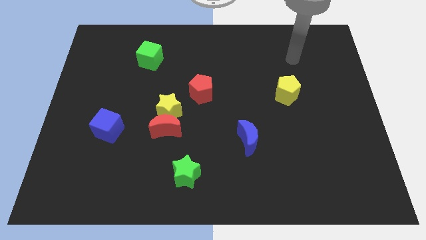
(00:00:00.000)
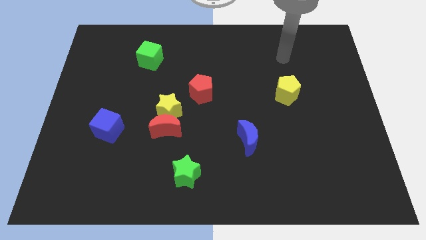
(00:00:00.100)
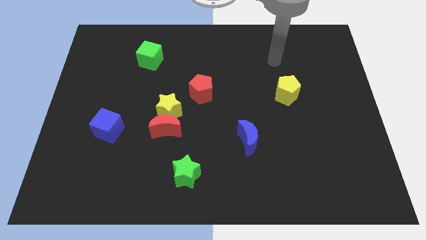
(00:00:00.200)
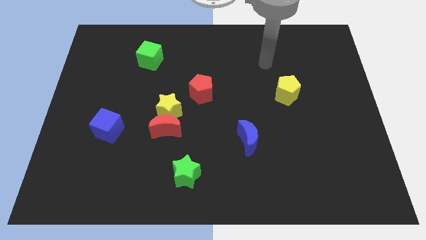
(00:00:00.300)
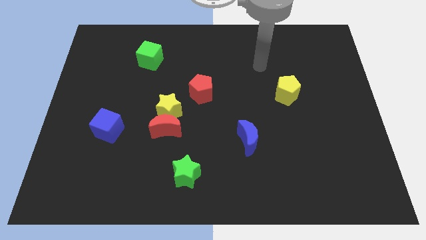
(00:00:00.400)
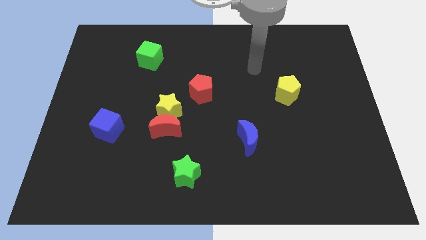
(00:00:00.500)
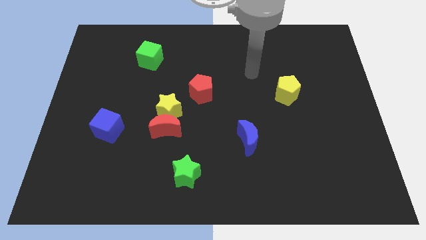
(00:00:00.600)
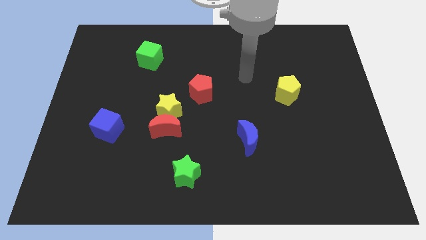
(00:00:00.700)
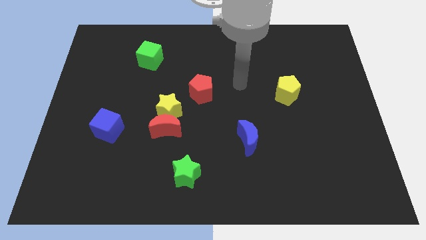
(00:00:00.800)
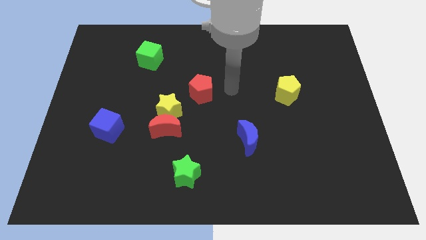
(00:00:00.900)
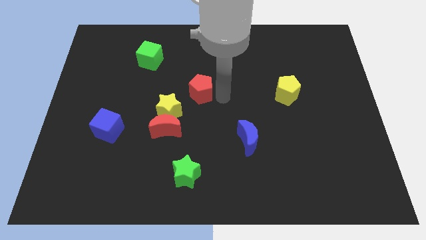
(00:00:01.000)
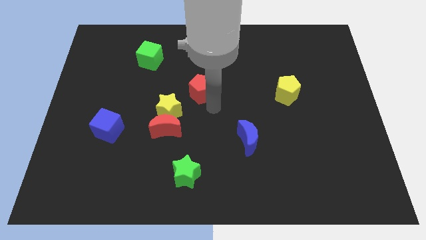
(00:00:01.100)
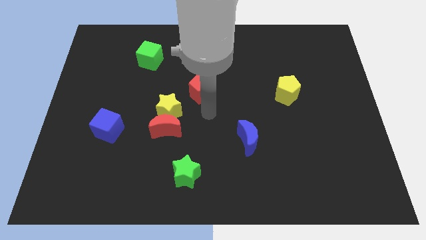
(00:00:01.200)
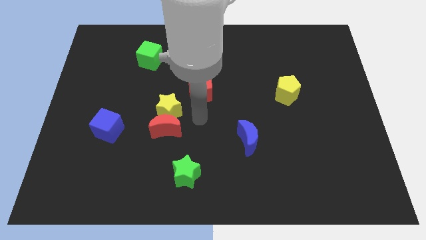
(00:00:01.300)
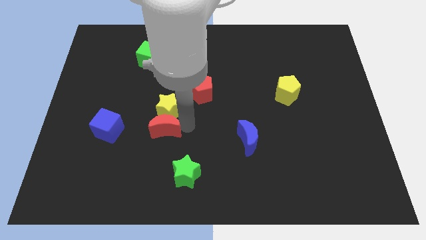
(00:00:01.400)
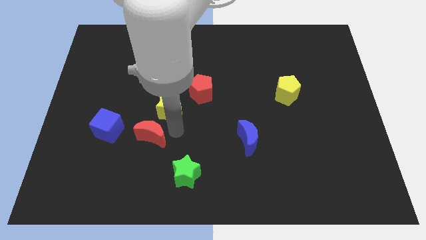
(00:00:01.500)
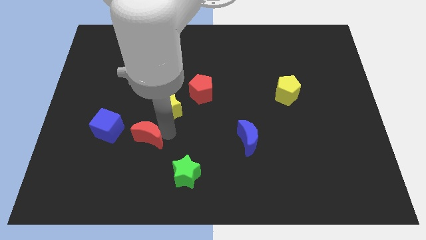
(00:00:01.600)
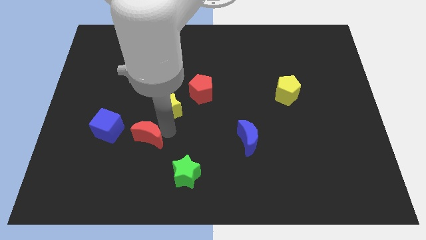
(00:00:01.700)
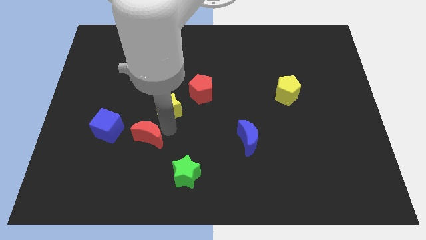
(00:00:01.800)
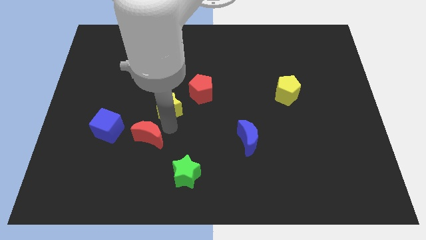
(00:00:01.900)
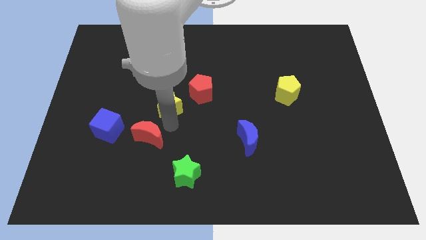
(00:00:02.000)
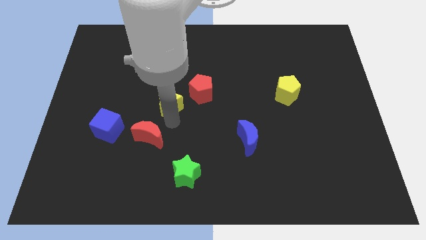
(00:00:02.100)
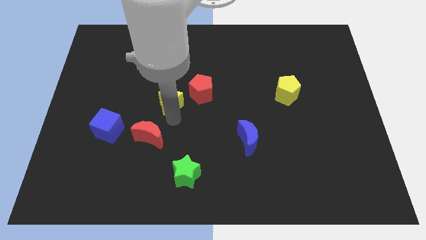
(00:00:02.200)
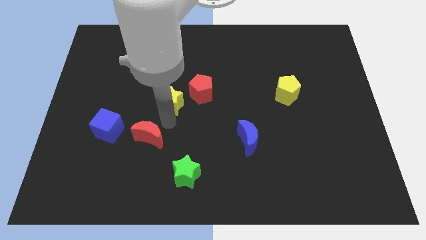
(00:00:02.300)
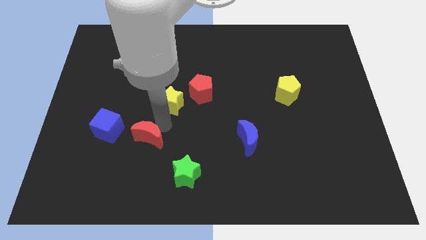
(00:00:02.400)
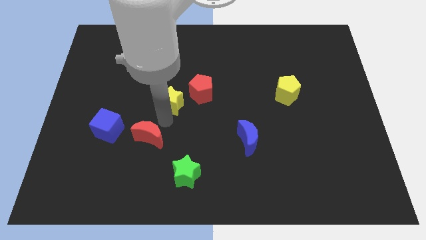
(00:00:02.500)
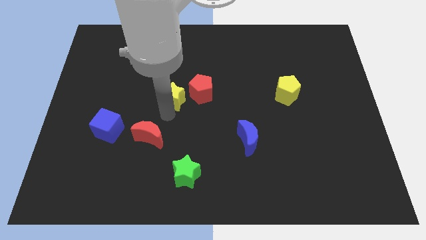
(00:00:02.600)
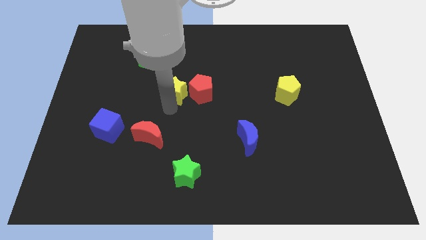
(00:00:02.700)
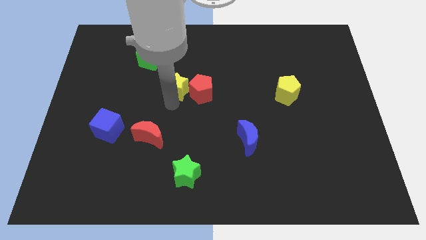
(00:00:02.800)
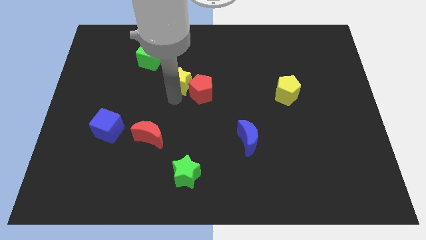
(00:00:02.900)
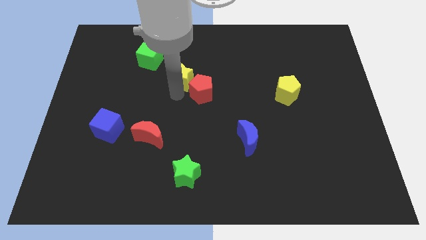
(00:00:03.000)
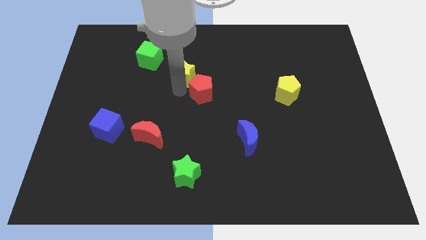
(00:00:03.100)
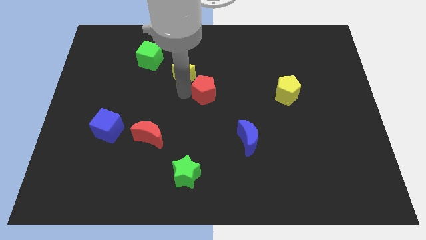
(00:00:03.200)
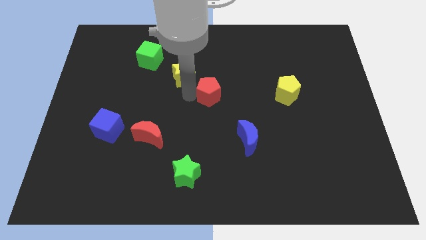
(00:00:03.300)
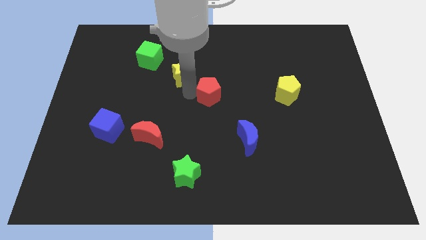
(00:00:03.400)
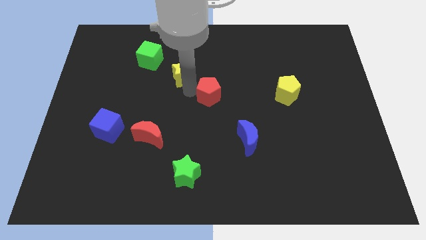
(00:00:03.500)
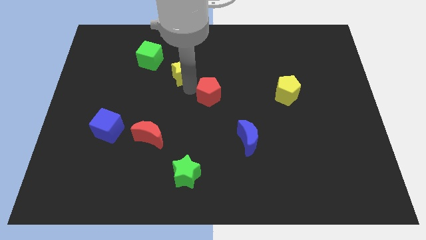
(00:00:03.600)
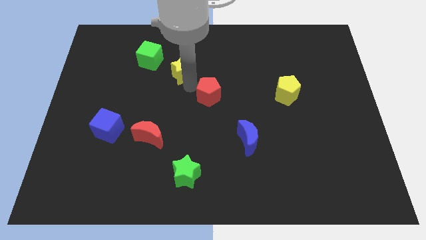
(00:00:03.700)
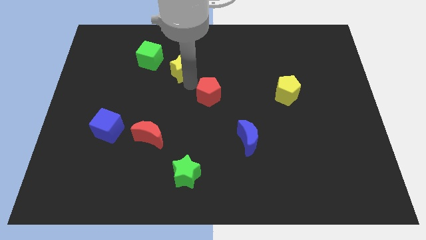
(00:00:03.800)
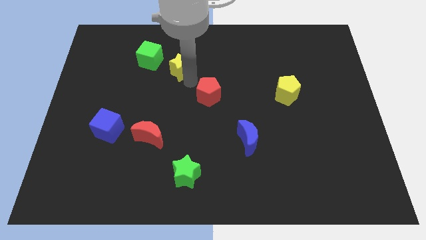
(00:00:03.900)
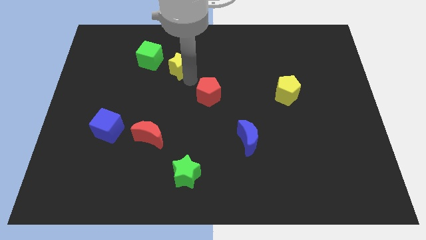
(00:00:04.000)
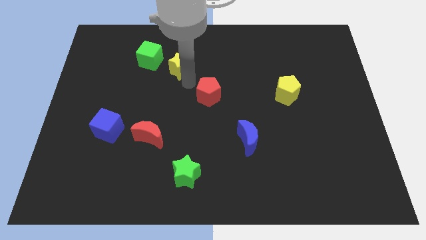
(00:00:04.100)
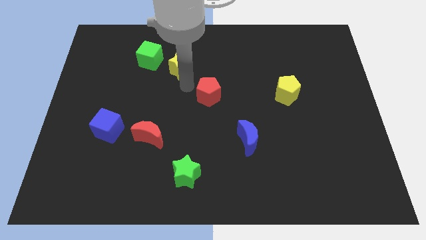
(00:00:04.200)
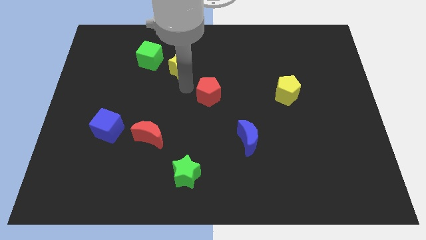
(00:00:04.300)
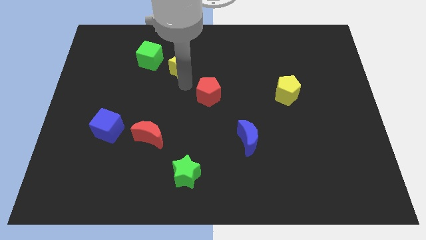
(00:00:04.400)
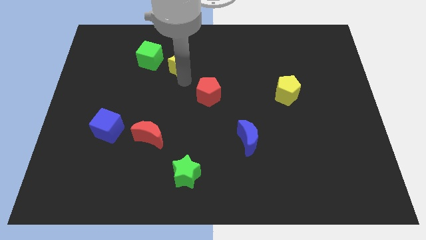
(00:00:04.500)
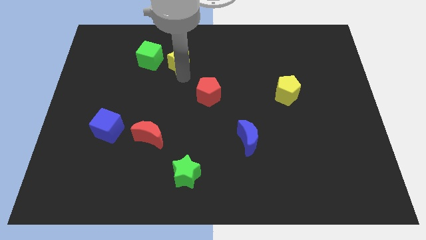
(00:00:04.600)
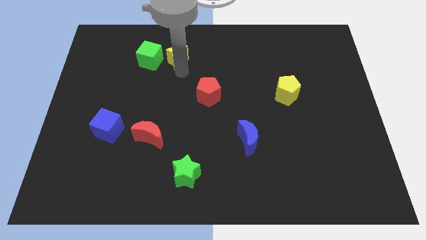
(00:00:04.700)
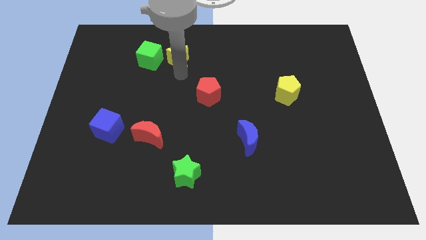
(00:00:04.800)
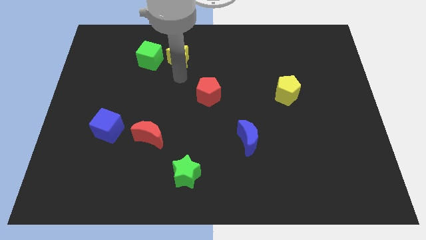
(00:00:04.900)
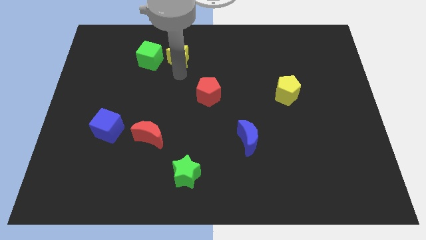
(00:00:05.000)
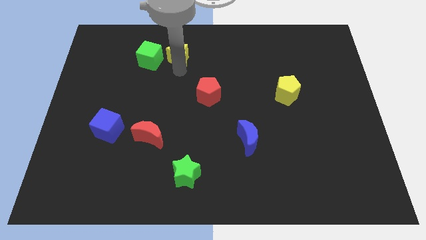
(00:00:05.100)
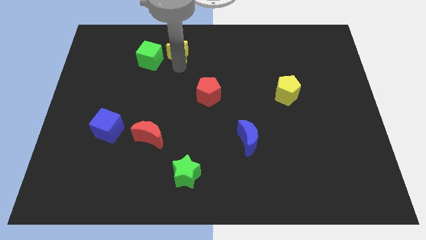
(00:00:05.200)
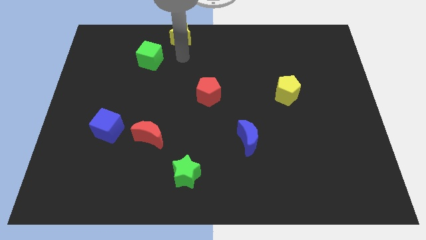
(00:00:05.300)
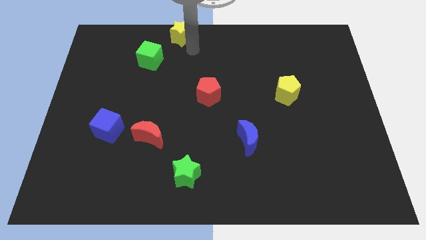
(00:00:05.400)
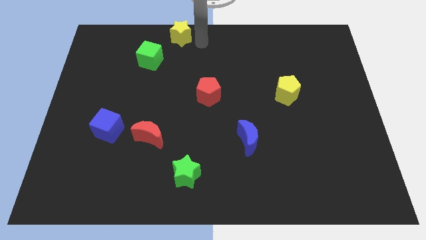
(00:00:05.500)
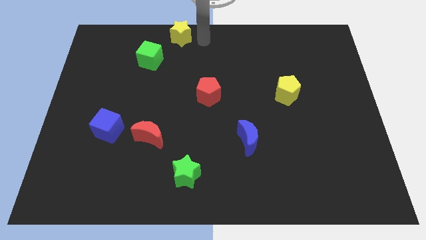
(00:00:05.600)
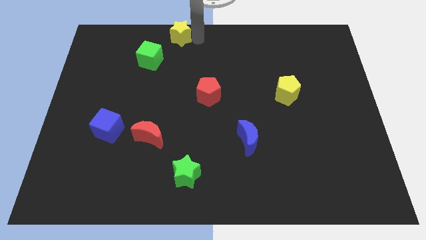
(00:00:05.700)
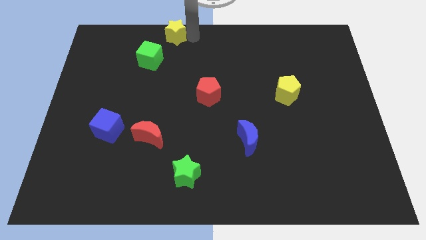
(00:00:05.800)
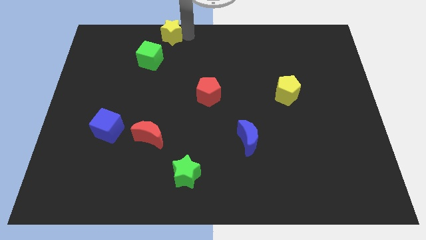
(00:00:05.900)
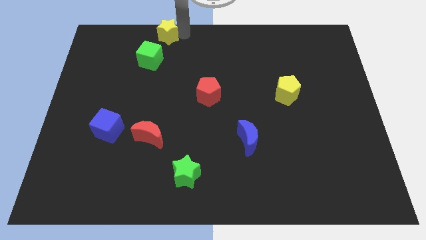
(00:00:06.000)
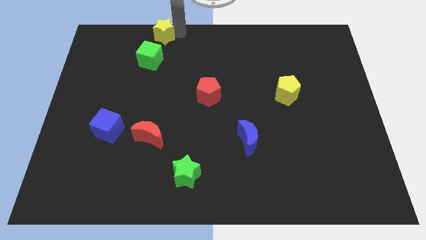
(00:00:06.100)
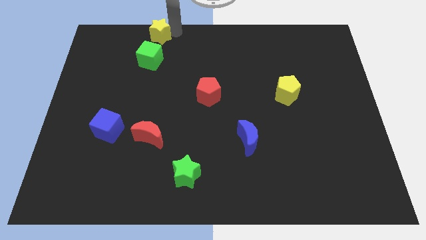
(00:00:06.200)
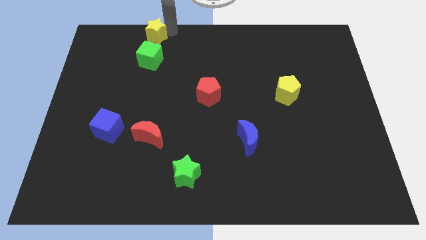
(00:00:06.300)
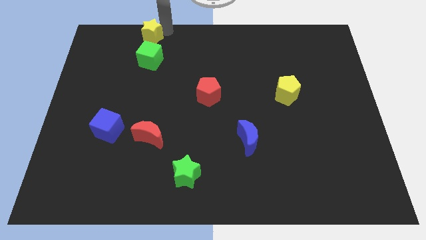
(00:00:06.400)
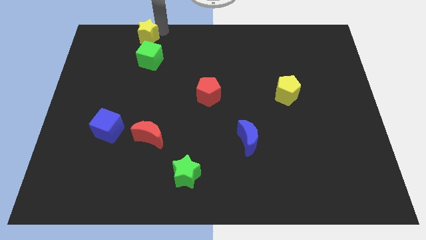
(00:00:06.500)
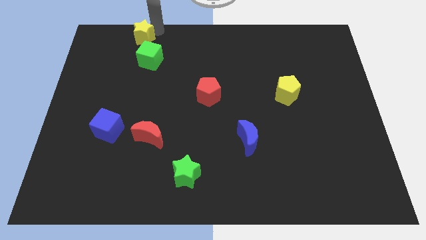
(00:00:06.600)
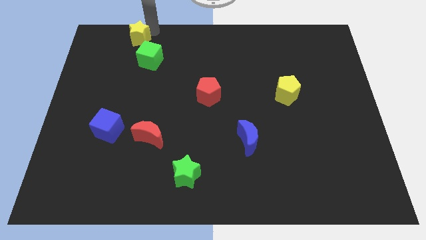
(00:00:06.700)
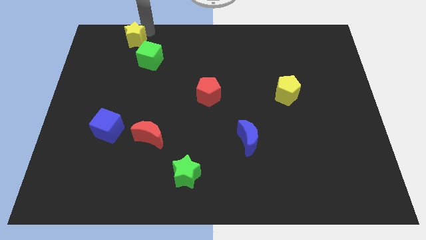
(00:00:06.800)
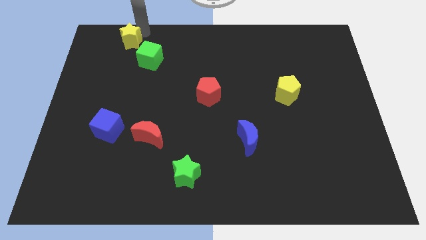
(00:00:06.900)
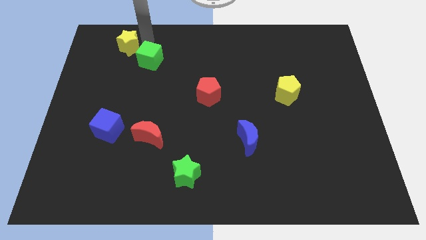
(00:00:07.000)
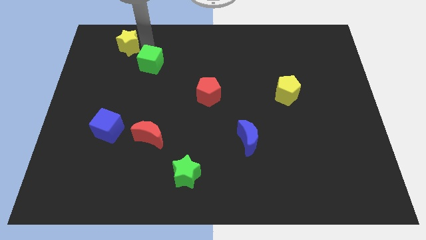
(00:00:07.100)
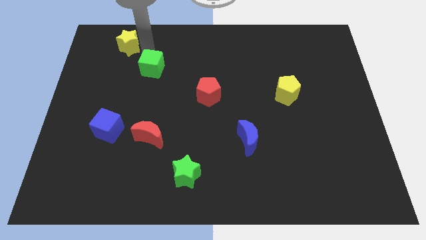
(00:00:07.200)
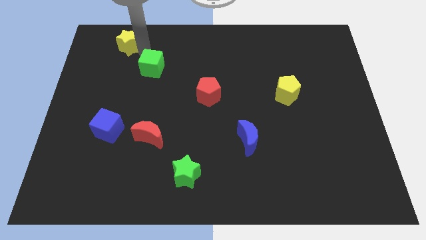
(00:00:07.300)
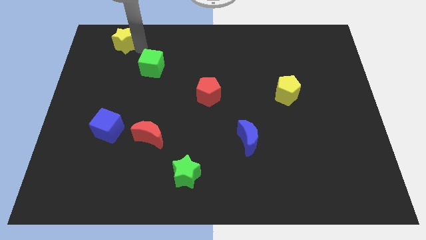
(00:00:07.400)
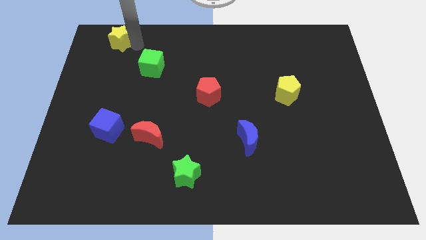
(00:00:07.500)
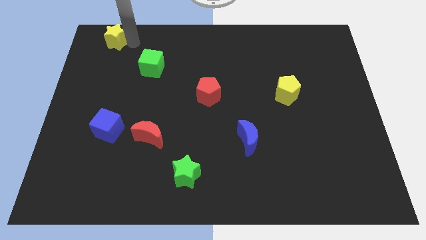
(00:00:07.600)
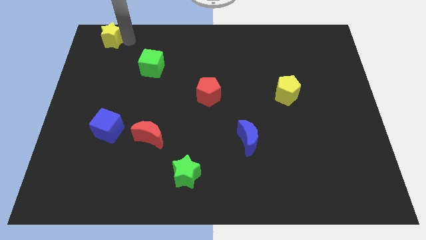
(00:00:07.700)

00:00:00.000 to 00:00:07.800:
slide the yellow star to the top left corner
